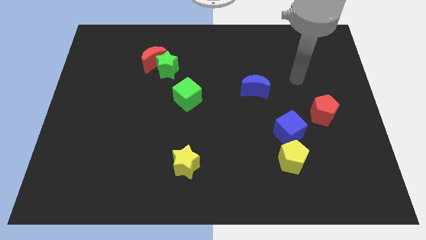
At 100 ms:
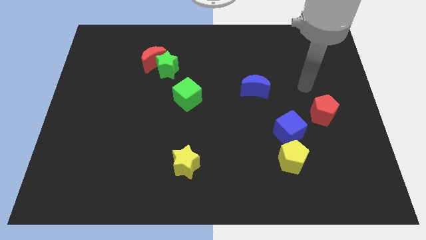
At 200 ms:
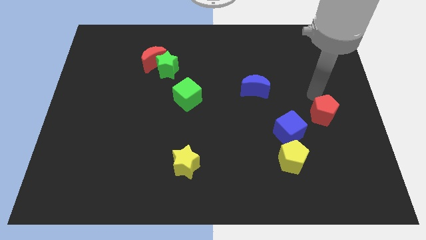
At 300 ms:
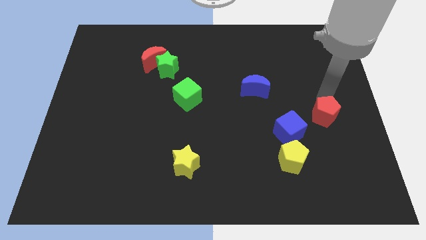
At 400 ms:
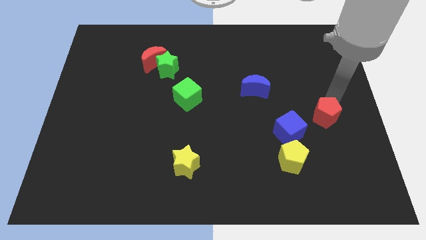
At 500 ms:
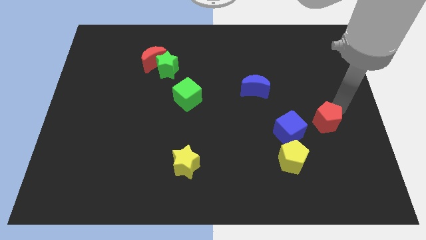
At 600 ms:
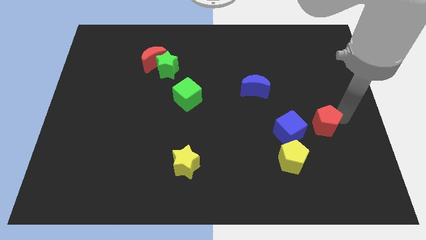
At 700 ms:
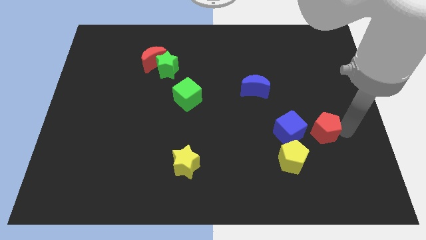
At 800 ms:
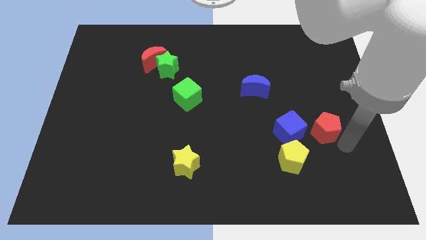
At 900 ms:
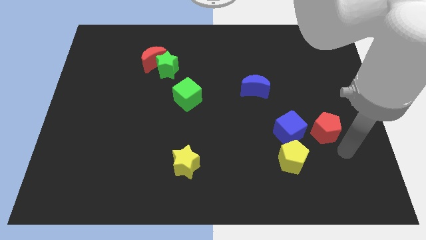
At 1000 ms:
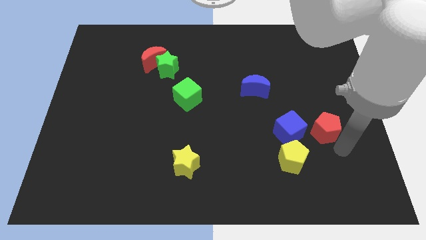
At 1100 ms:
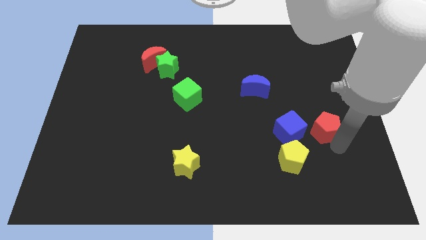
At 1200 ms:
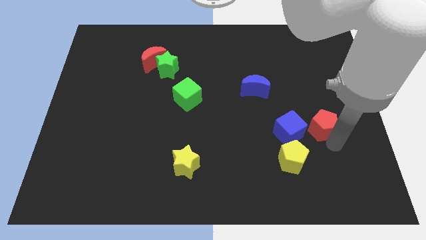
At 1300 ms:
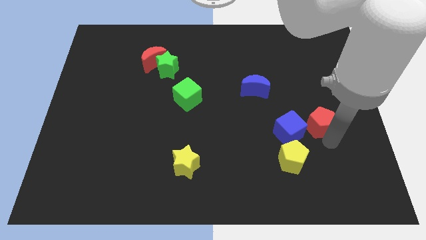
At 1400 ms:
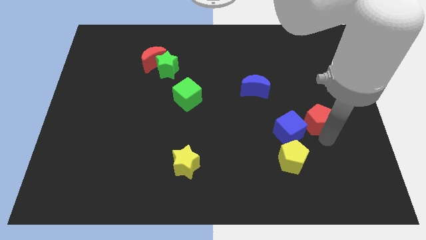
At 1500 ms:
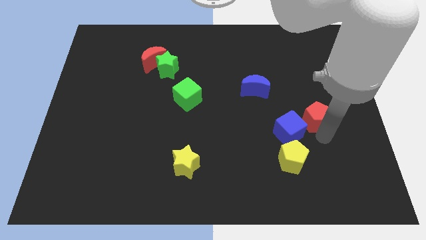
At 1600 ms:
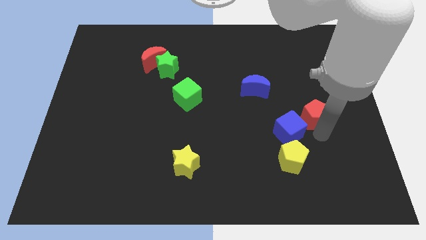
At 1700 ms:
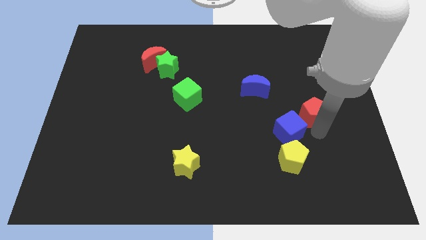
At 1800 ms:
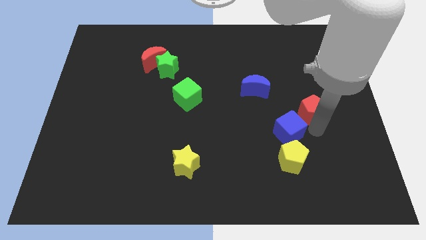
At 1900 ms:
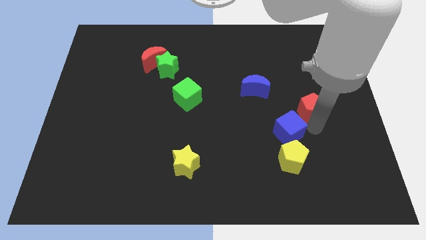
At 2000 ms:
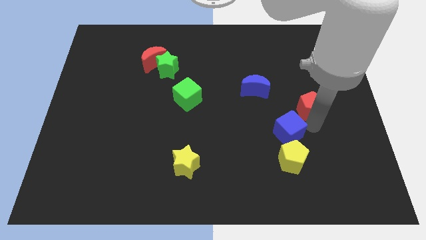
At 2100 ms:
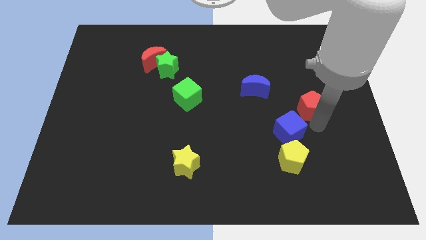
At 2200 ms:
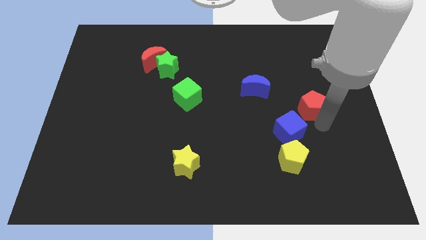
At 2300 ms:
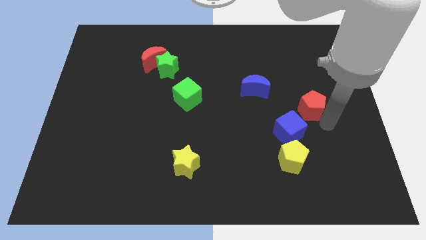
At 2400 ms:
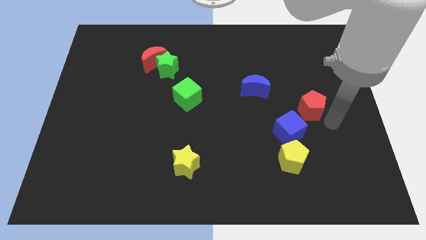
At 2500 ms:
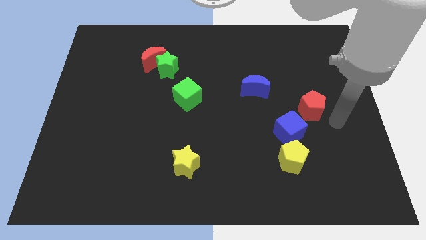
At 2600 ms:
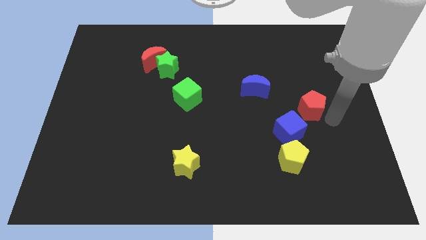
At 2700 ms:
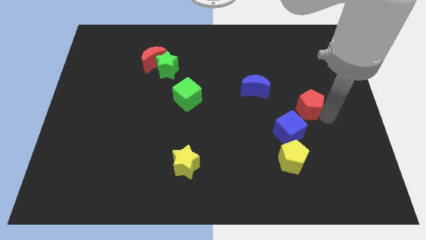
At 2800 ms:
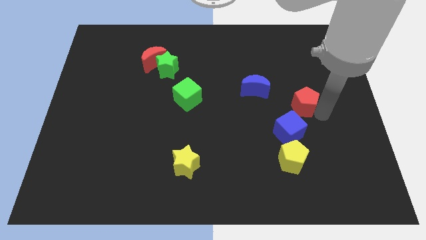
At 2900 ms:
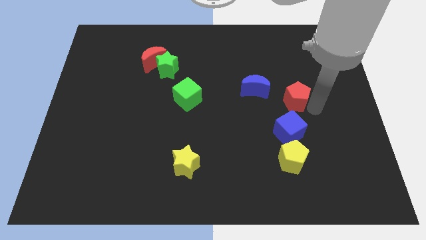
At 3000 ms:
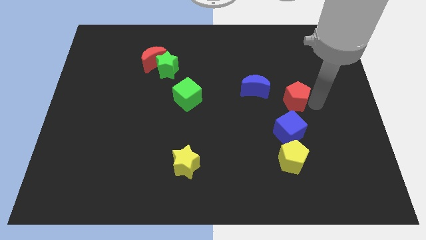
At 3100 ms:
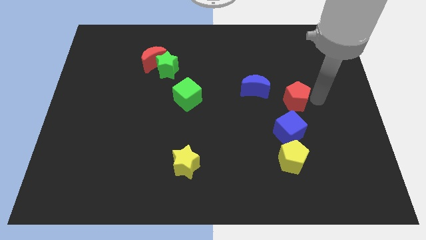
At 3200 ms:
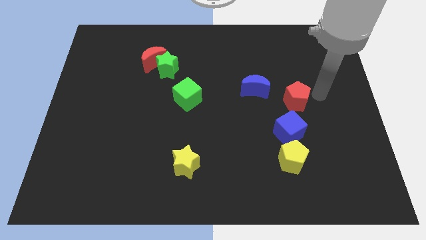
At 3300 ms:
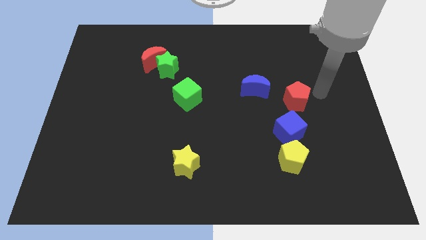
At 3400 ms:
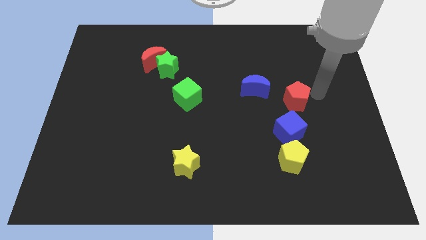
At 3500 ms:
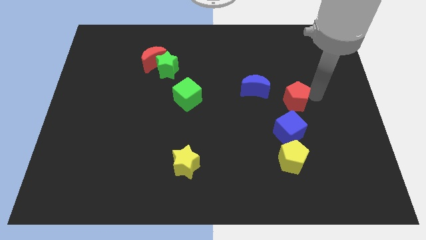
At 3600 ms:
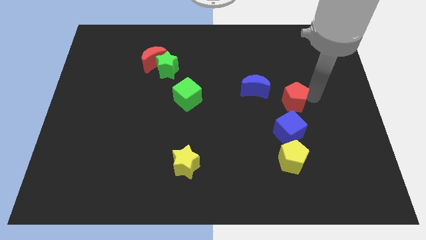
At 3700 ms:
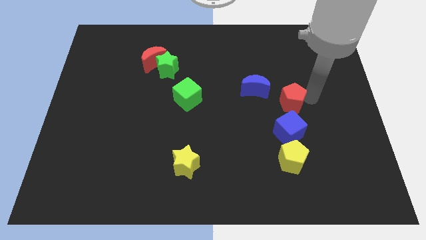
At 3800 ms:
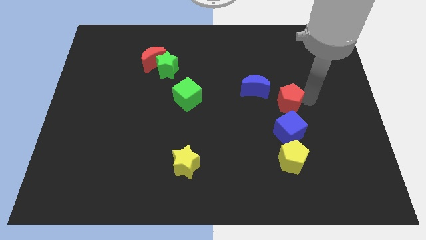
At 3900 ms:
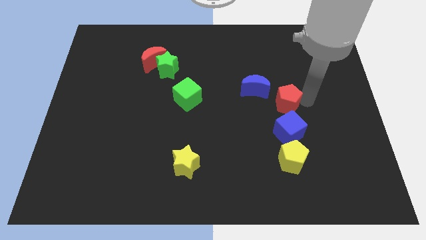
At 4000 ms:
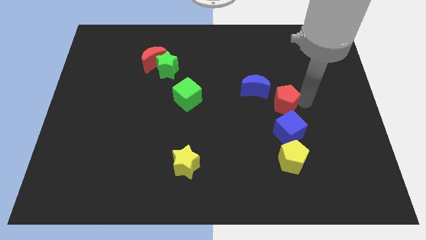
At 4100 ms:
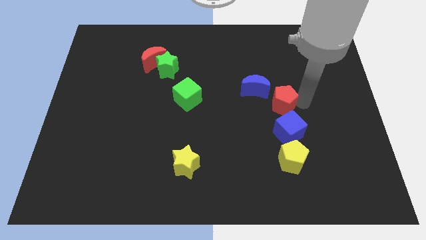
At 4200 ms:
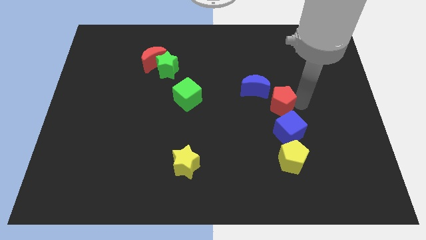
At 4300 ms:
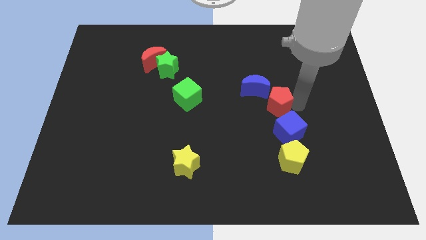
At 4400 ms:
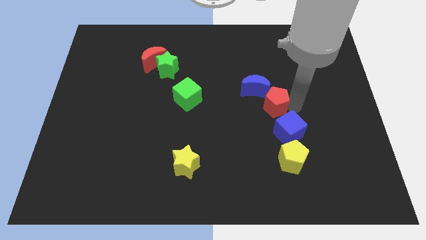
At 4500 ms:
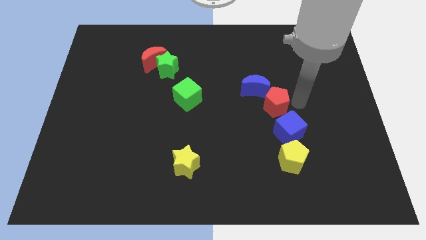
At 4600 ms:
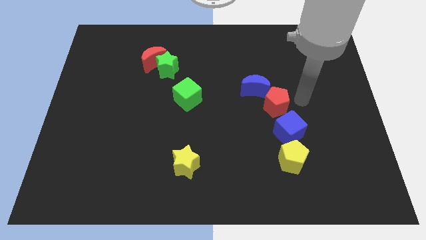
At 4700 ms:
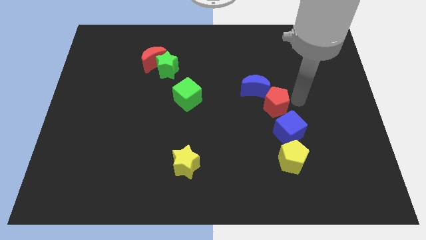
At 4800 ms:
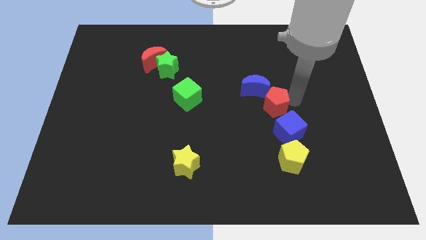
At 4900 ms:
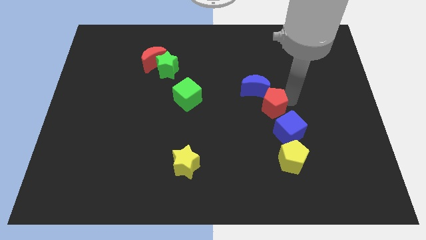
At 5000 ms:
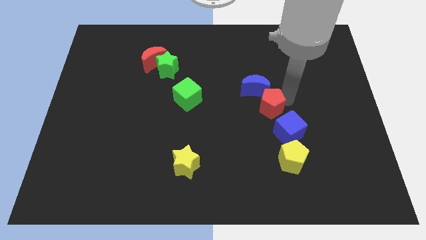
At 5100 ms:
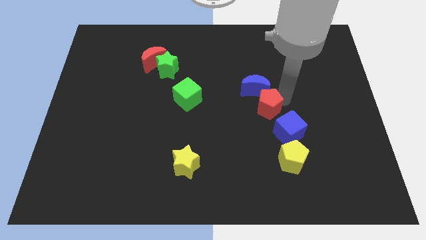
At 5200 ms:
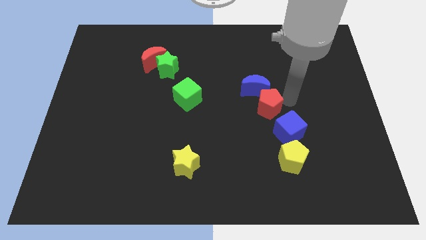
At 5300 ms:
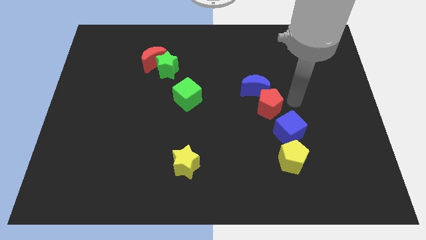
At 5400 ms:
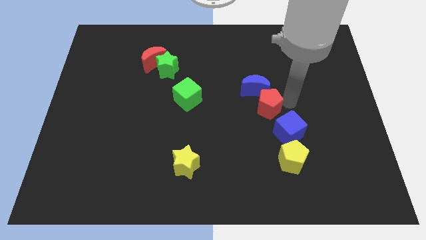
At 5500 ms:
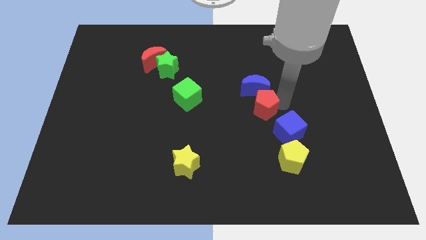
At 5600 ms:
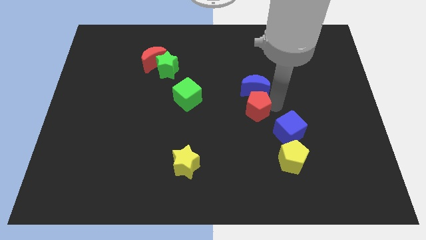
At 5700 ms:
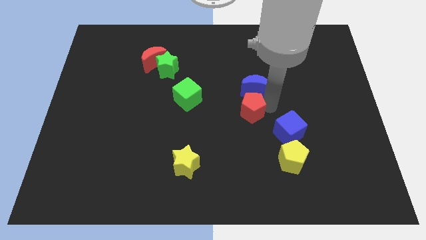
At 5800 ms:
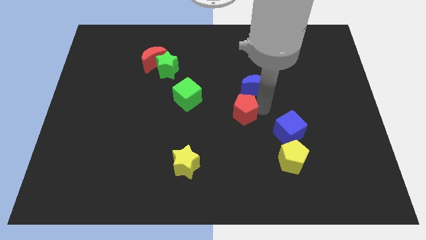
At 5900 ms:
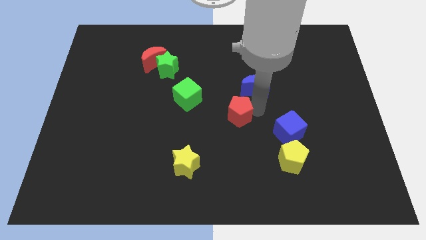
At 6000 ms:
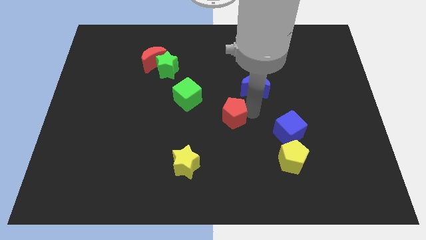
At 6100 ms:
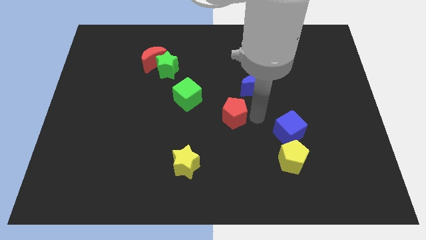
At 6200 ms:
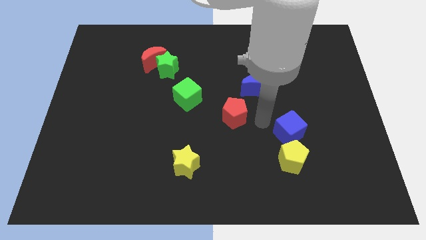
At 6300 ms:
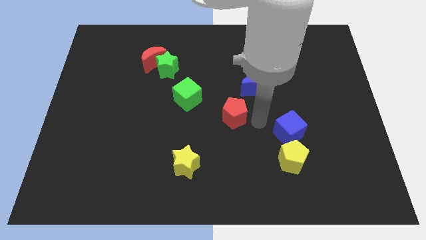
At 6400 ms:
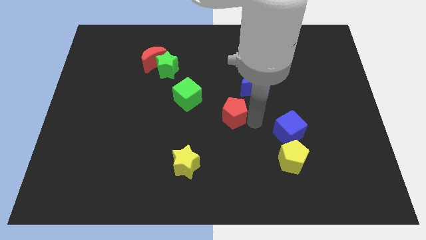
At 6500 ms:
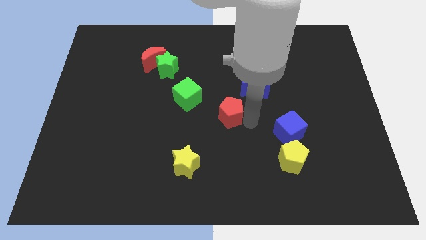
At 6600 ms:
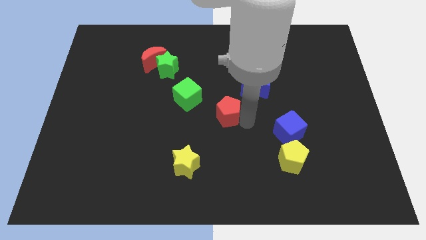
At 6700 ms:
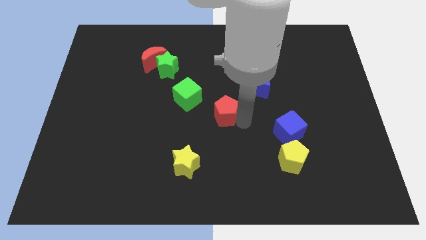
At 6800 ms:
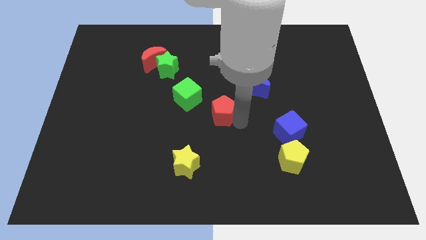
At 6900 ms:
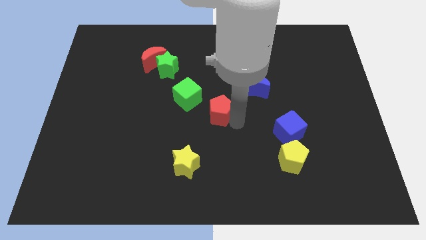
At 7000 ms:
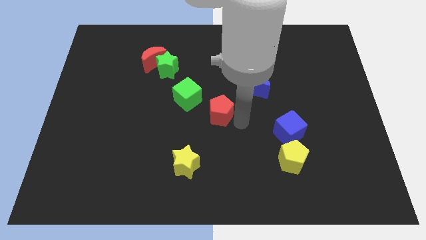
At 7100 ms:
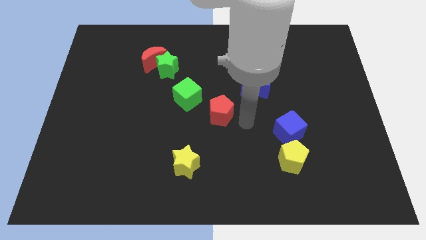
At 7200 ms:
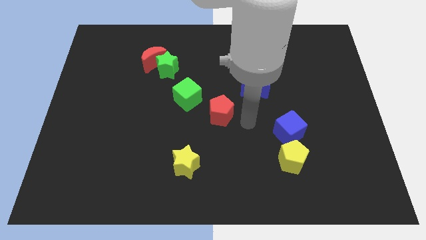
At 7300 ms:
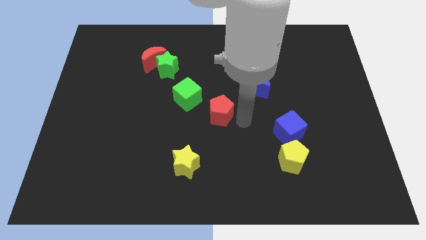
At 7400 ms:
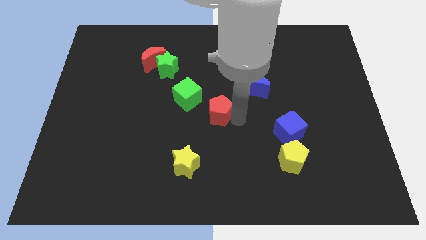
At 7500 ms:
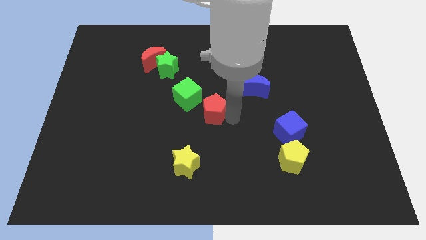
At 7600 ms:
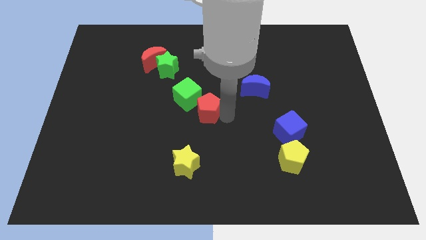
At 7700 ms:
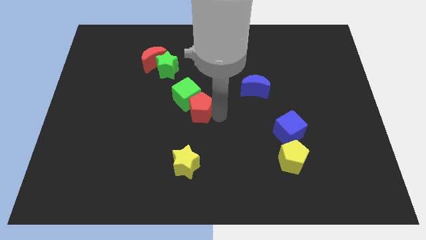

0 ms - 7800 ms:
move the red pentagon next to the green cube
